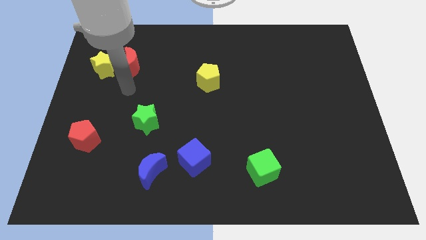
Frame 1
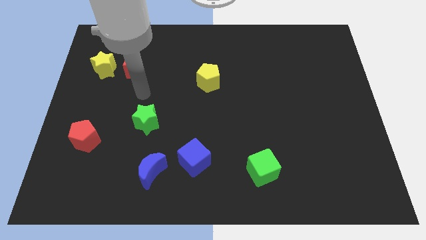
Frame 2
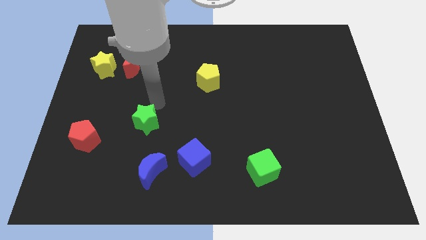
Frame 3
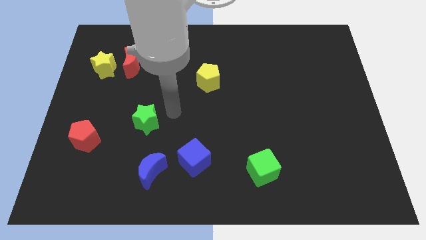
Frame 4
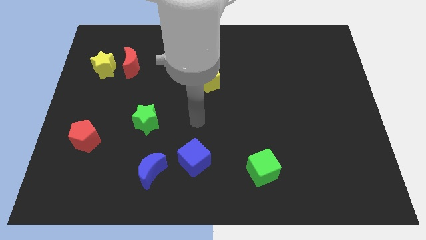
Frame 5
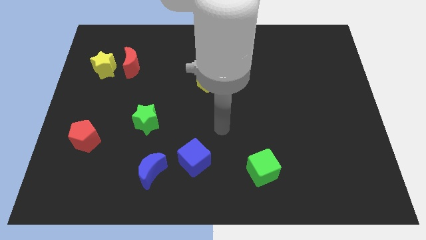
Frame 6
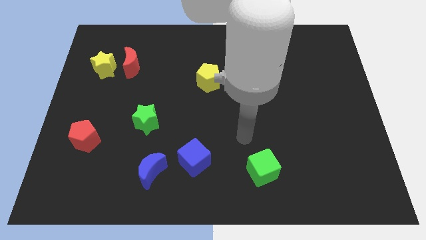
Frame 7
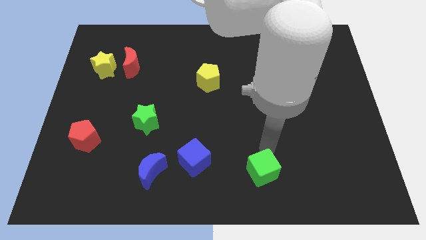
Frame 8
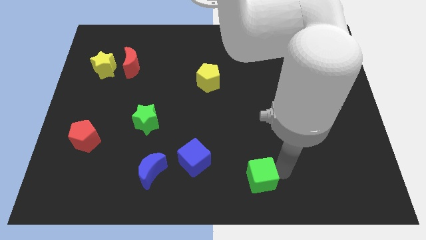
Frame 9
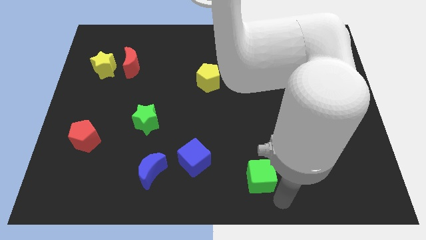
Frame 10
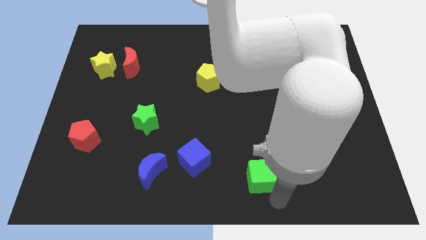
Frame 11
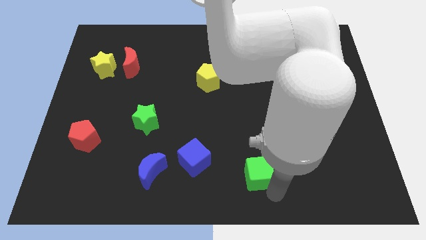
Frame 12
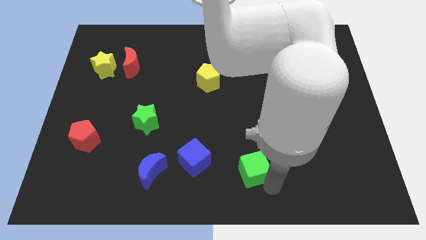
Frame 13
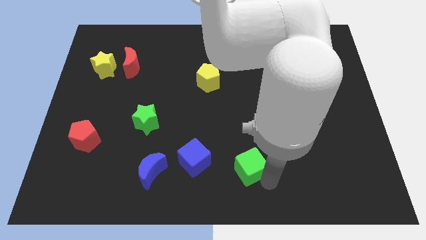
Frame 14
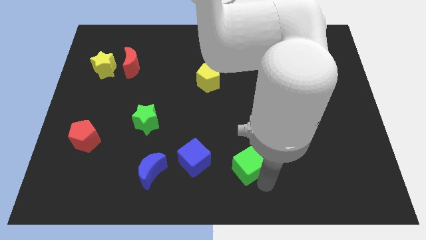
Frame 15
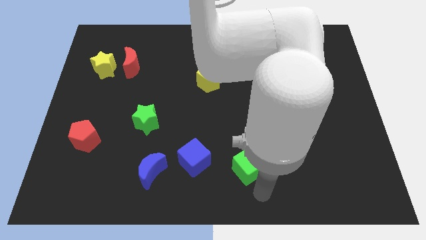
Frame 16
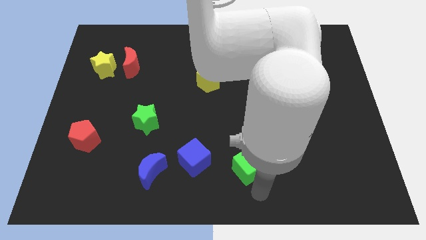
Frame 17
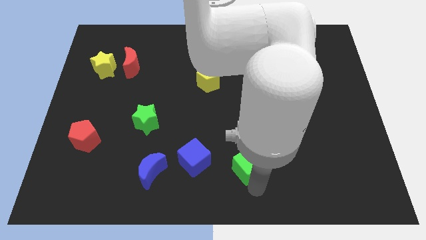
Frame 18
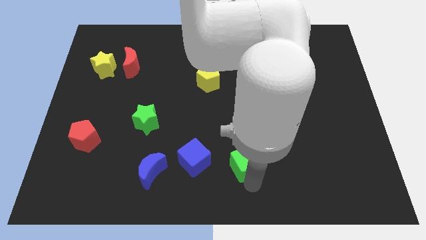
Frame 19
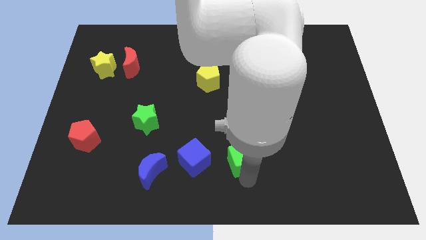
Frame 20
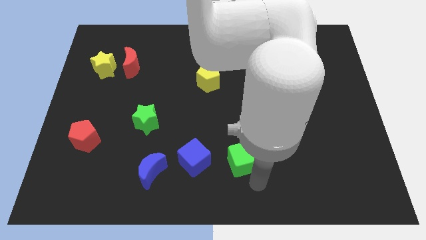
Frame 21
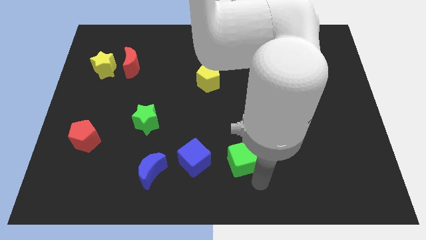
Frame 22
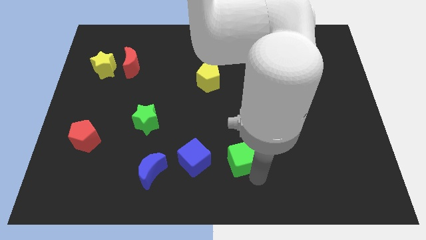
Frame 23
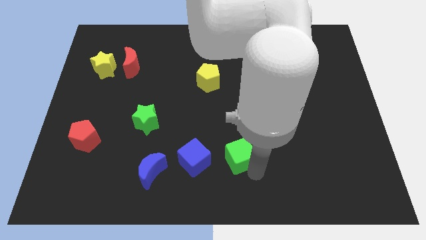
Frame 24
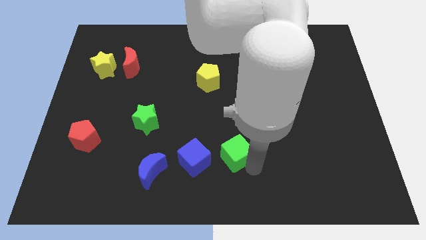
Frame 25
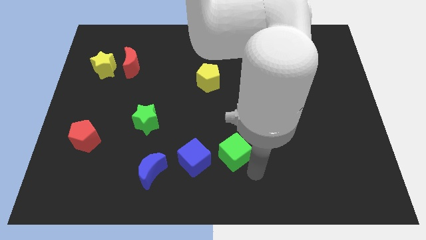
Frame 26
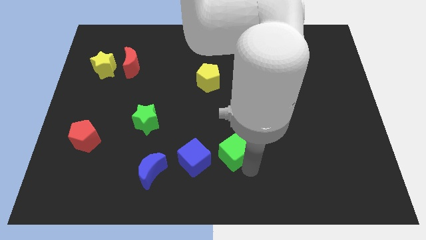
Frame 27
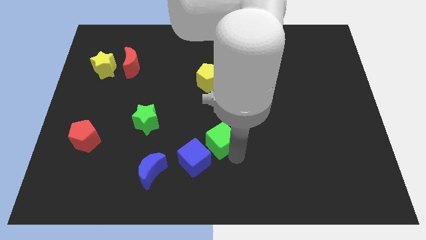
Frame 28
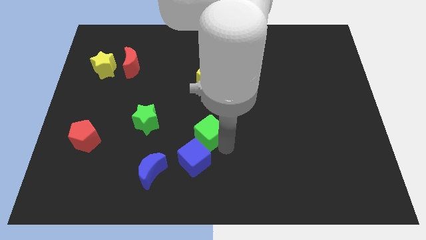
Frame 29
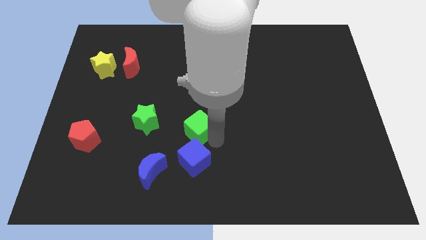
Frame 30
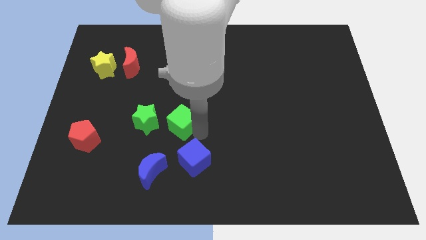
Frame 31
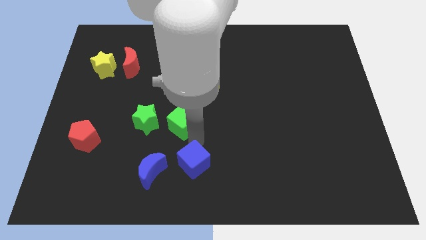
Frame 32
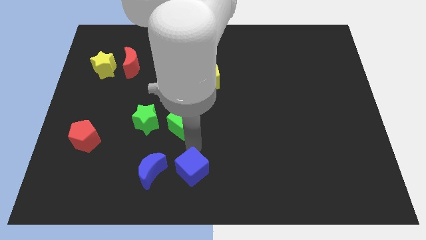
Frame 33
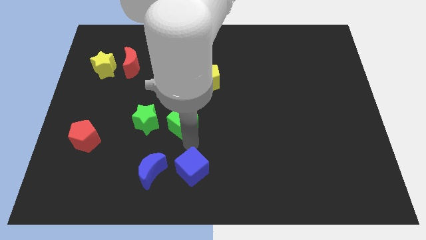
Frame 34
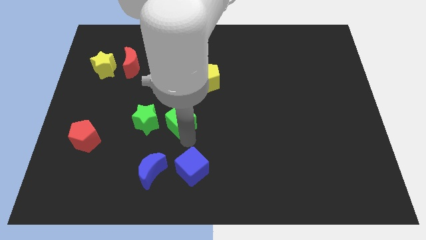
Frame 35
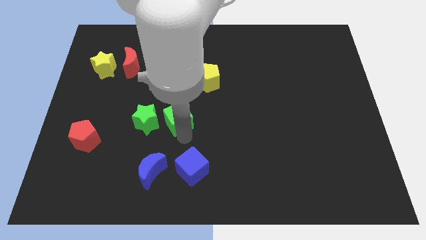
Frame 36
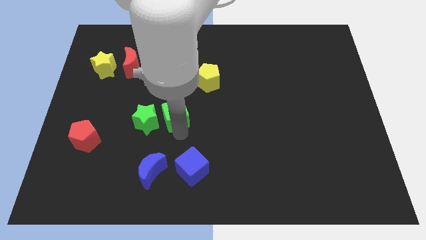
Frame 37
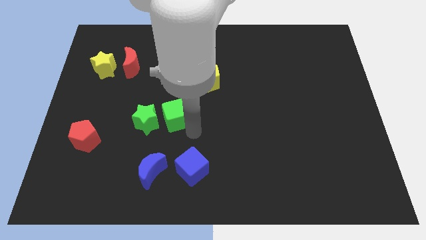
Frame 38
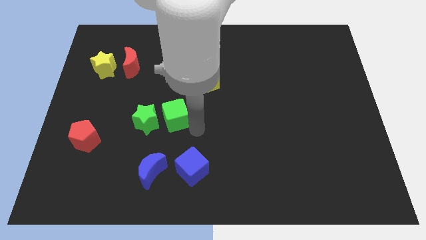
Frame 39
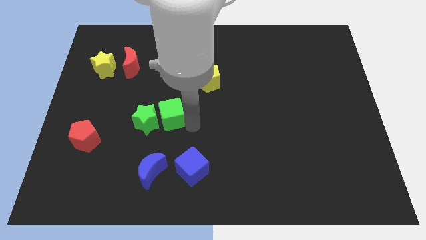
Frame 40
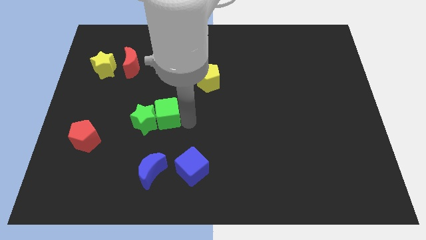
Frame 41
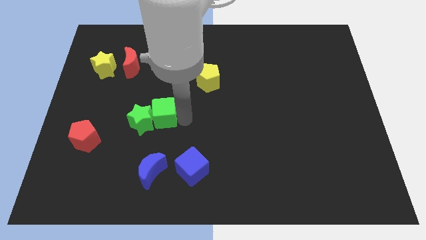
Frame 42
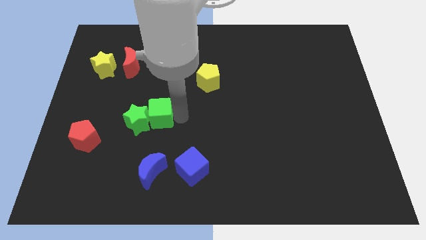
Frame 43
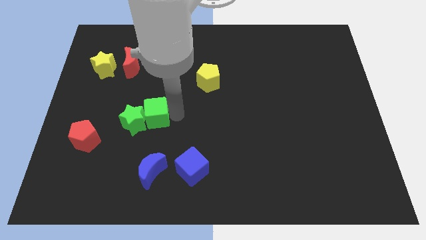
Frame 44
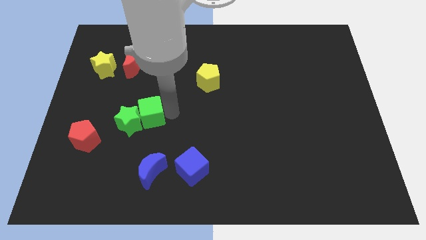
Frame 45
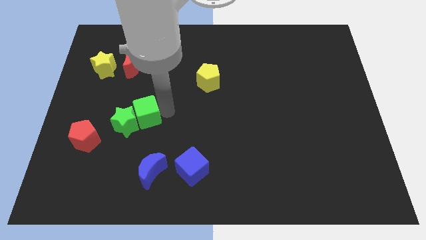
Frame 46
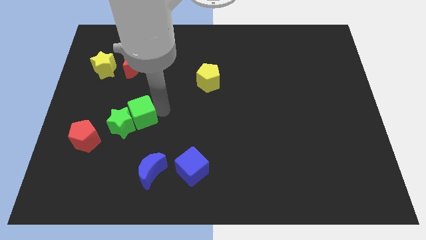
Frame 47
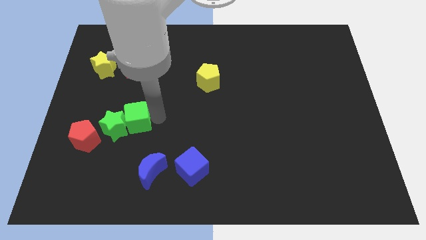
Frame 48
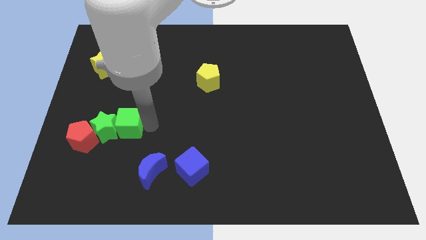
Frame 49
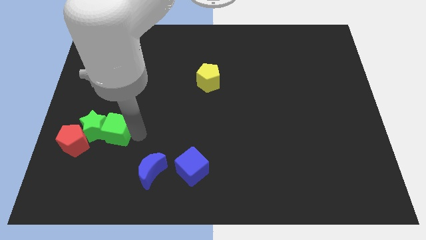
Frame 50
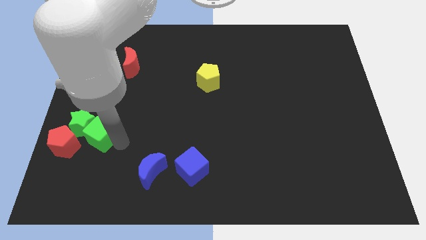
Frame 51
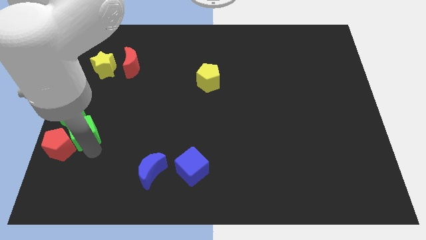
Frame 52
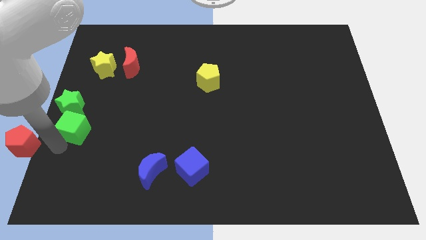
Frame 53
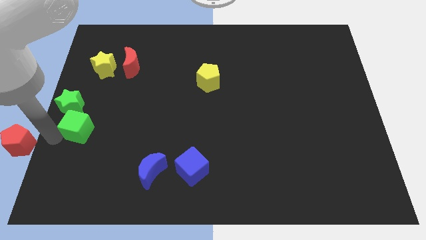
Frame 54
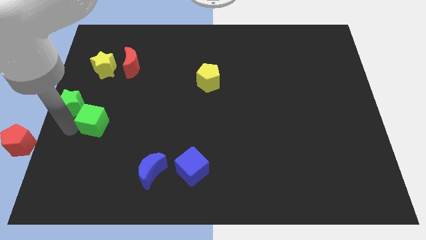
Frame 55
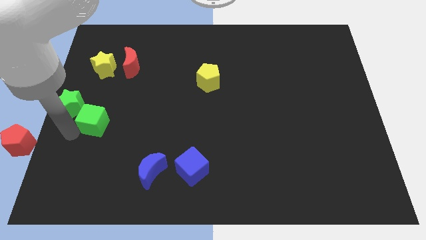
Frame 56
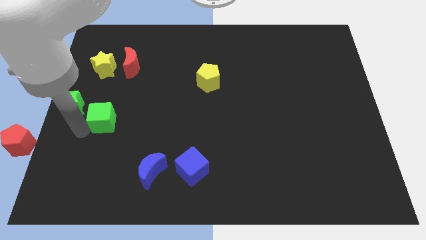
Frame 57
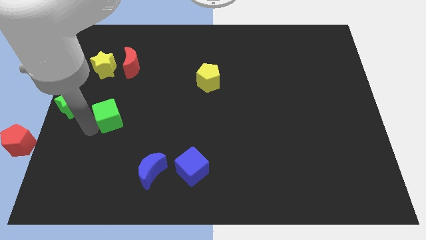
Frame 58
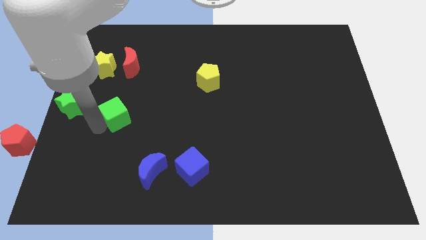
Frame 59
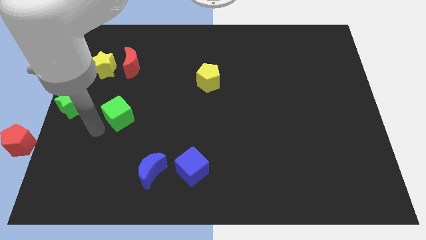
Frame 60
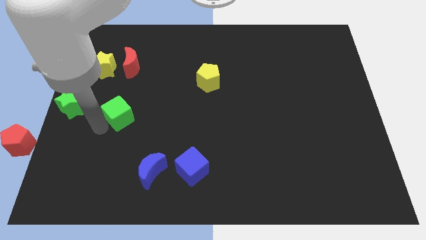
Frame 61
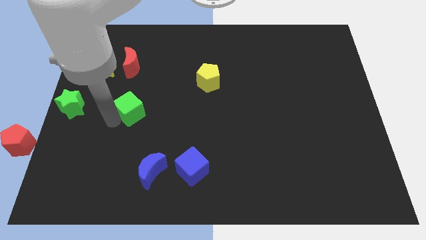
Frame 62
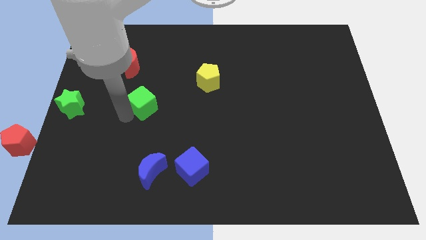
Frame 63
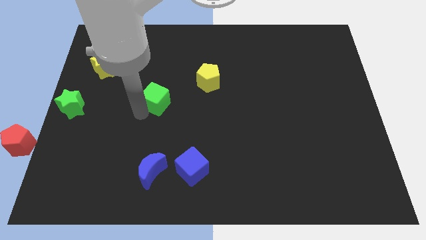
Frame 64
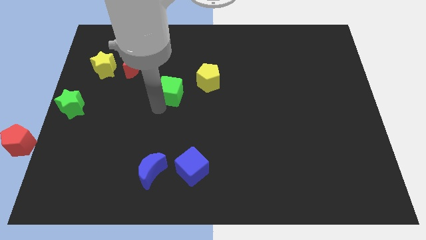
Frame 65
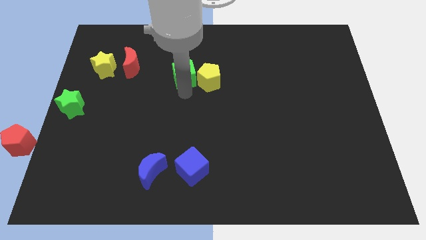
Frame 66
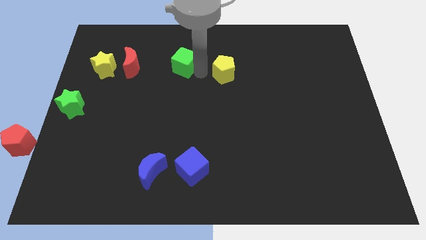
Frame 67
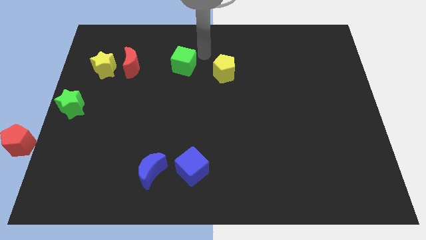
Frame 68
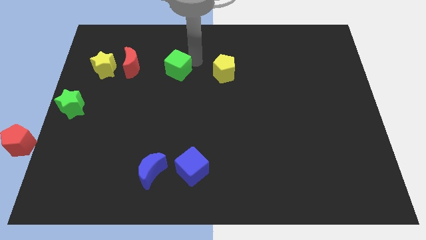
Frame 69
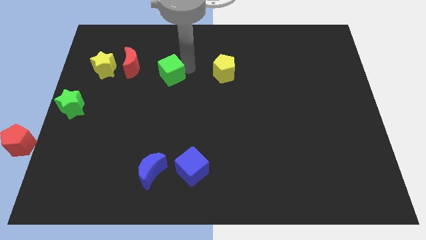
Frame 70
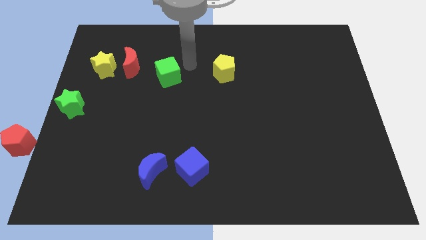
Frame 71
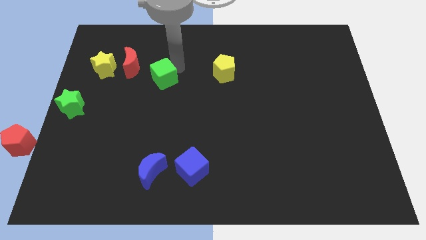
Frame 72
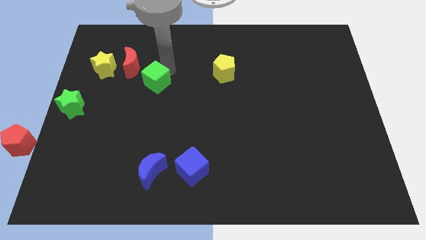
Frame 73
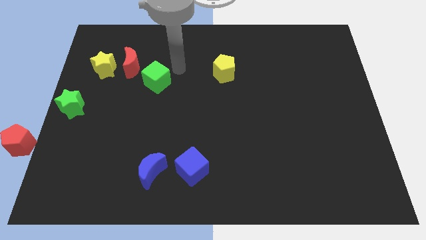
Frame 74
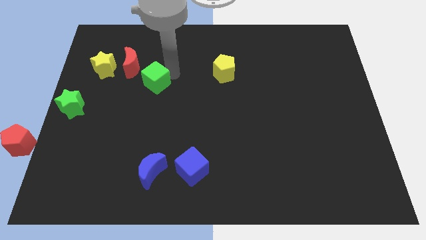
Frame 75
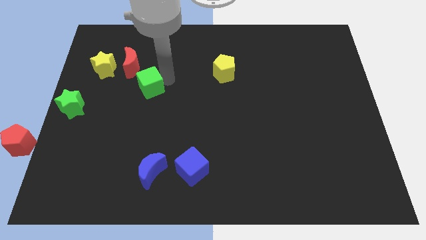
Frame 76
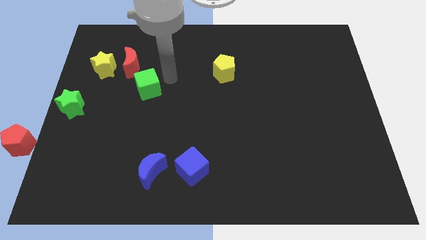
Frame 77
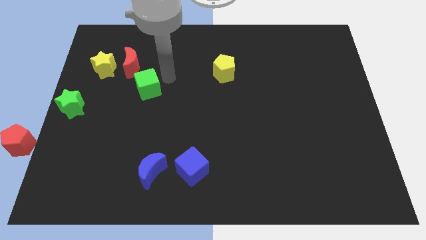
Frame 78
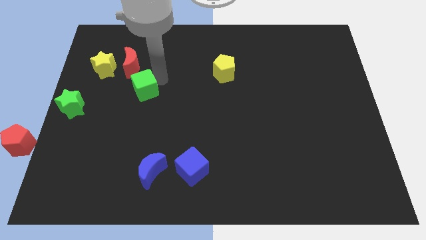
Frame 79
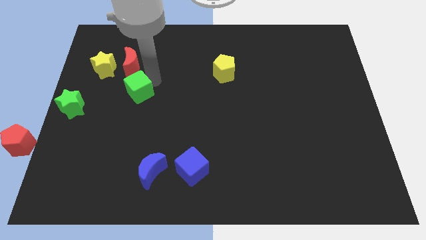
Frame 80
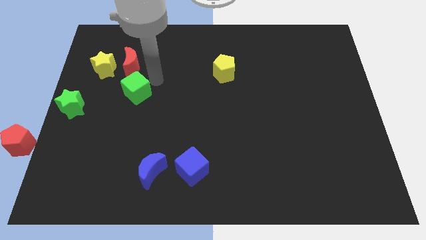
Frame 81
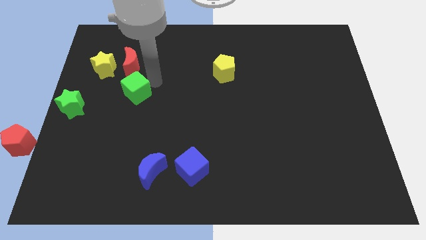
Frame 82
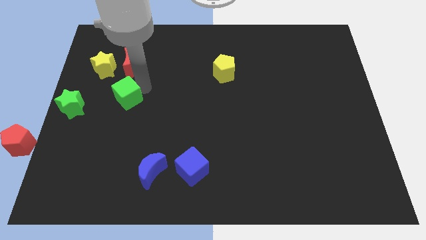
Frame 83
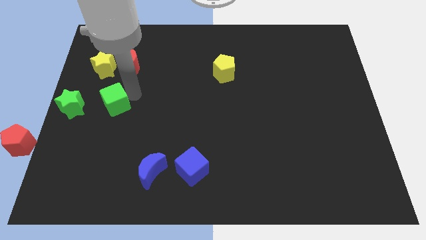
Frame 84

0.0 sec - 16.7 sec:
slide the green cube to the bottom of the yellow star
